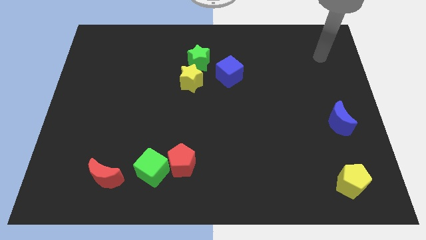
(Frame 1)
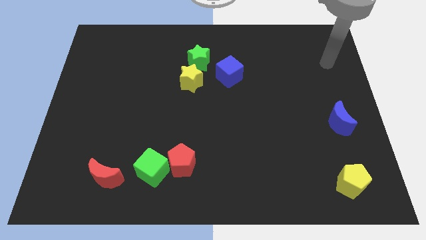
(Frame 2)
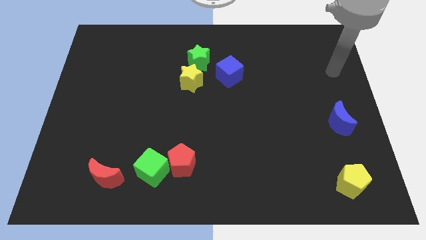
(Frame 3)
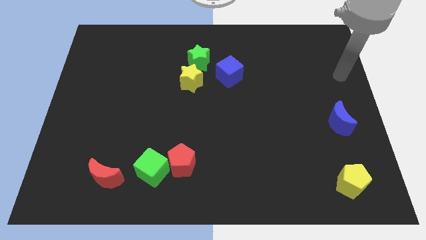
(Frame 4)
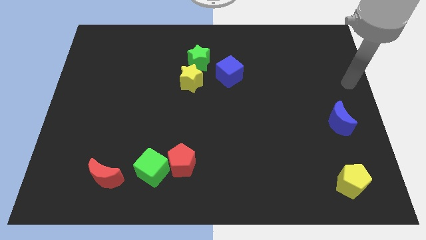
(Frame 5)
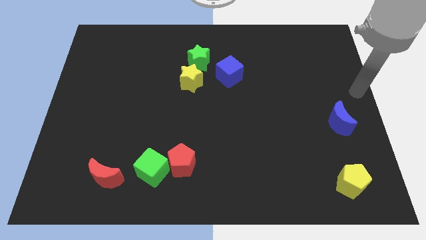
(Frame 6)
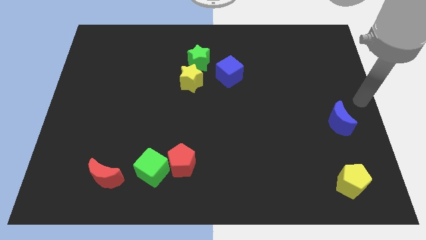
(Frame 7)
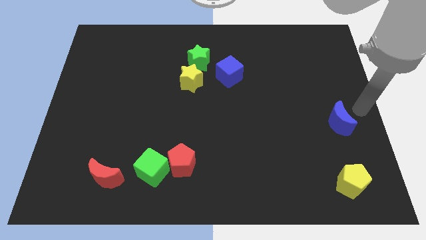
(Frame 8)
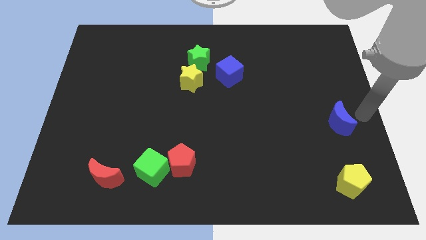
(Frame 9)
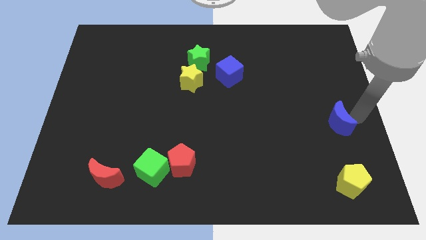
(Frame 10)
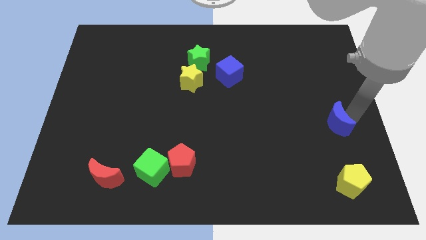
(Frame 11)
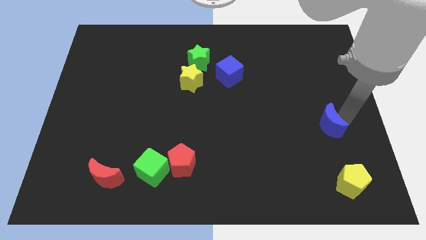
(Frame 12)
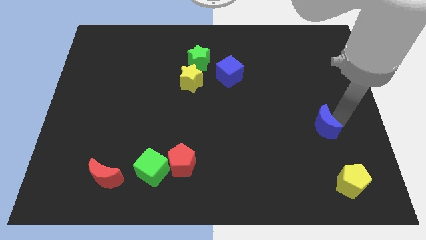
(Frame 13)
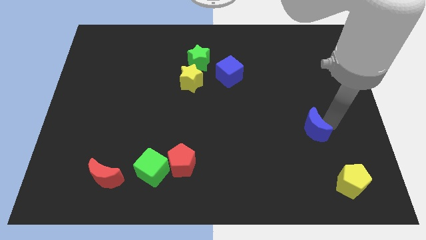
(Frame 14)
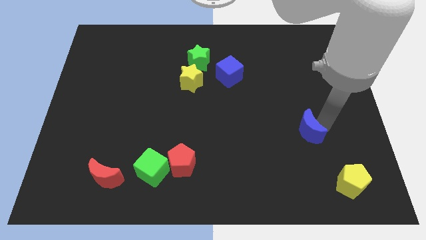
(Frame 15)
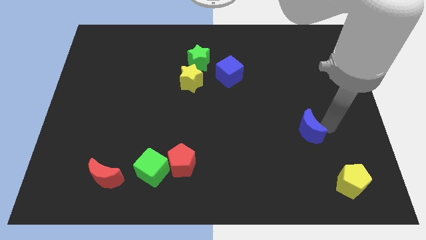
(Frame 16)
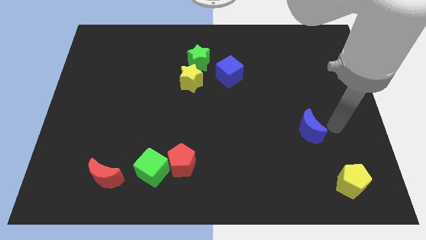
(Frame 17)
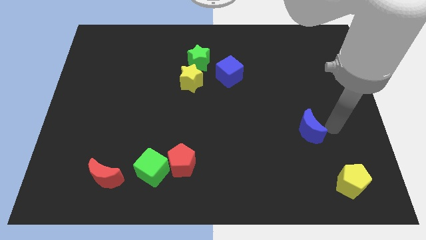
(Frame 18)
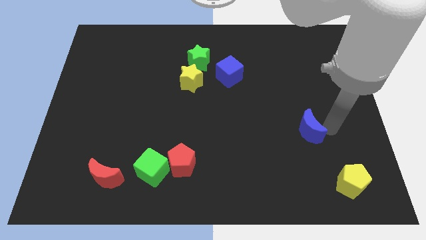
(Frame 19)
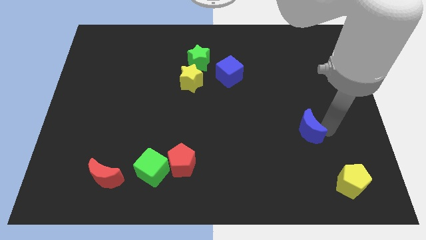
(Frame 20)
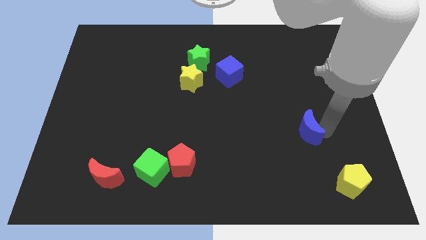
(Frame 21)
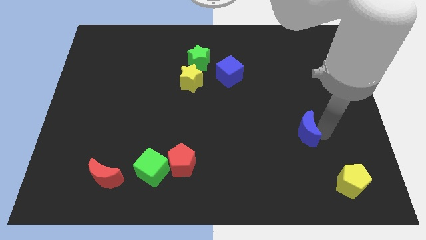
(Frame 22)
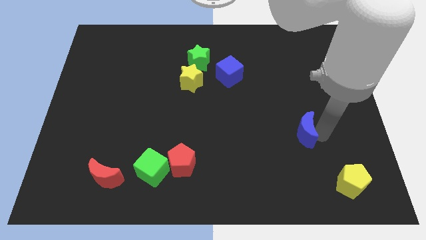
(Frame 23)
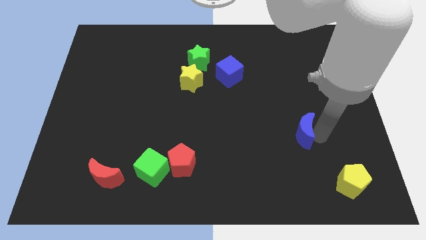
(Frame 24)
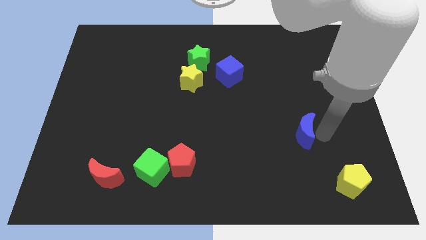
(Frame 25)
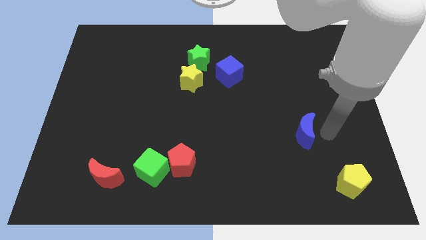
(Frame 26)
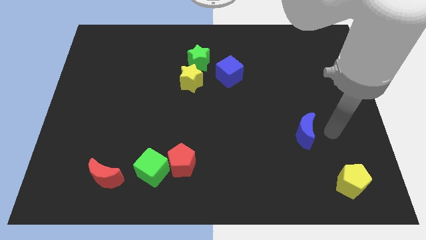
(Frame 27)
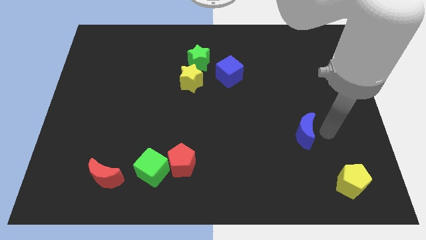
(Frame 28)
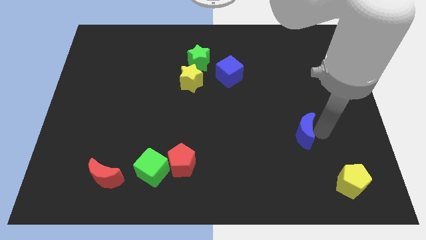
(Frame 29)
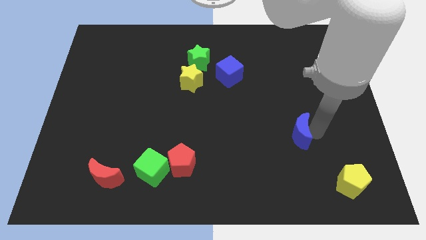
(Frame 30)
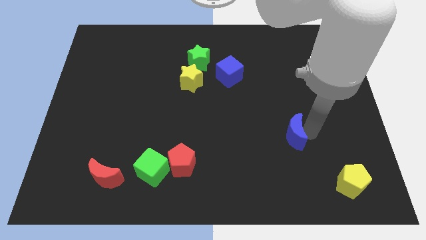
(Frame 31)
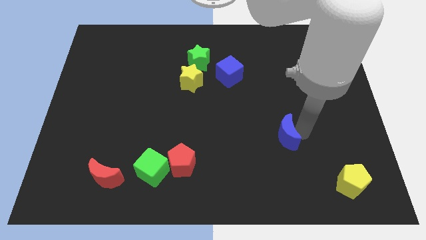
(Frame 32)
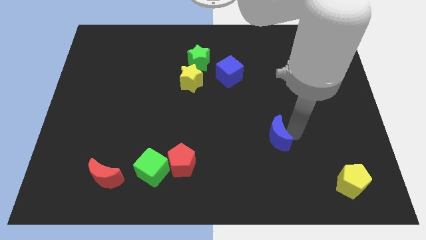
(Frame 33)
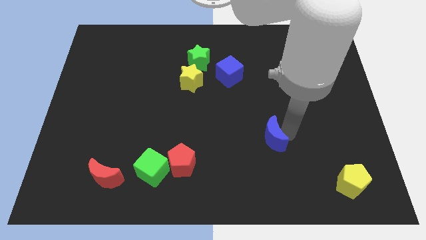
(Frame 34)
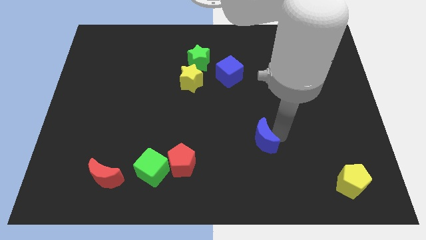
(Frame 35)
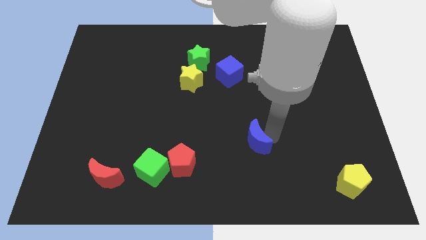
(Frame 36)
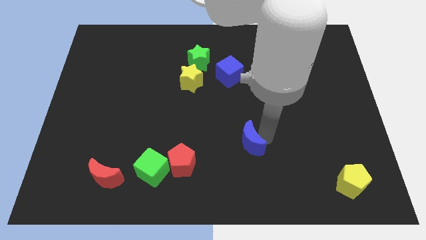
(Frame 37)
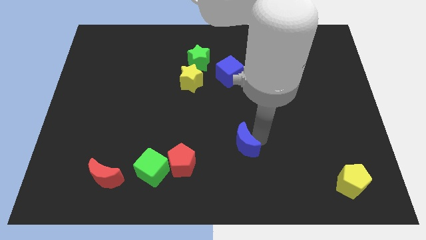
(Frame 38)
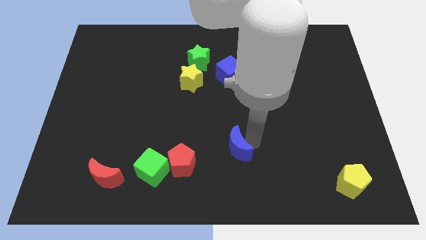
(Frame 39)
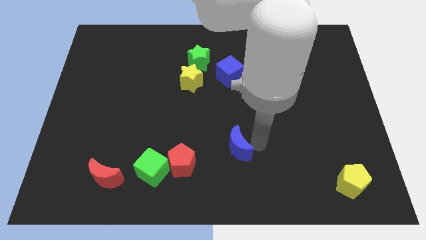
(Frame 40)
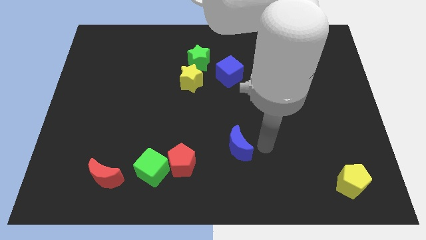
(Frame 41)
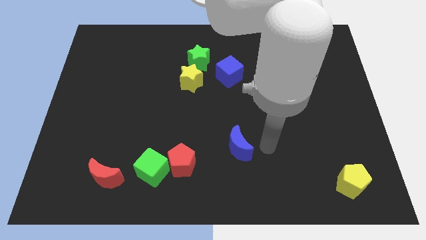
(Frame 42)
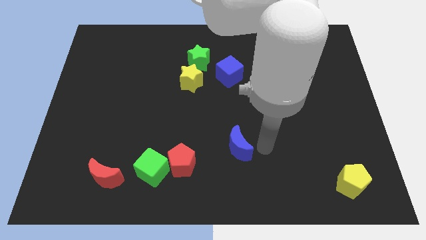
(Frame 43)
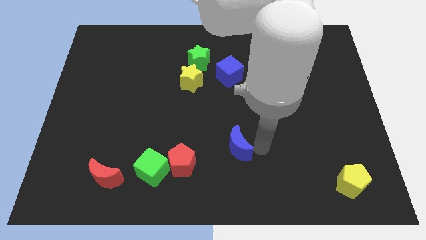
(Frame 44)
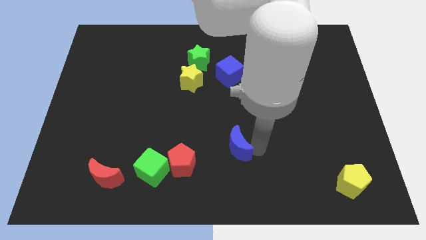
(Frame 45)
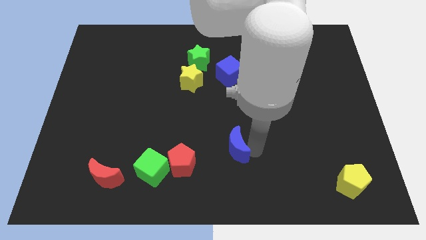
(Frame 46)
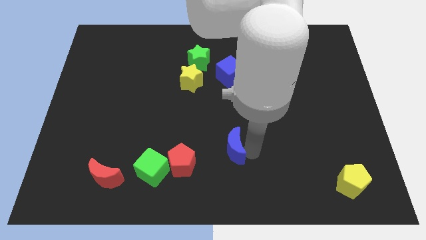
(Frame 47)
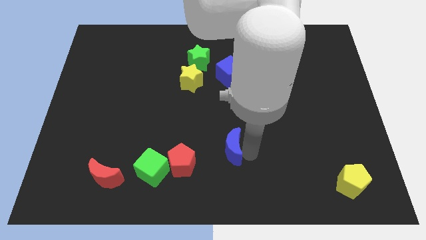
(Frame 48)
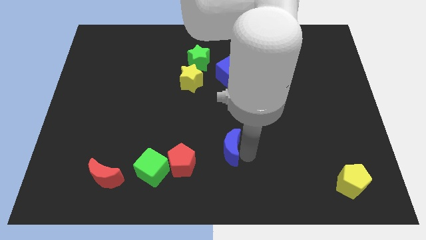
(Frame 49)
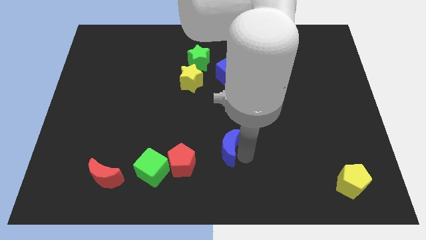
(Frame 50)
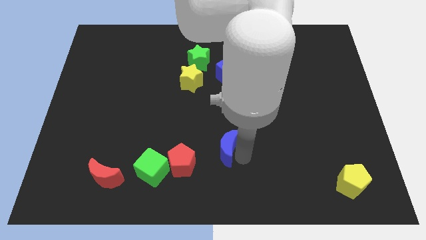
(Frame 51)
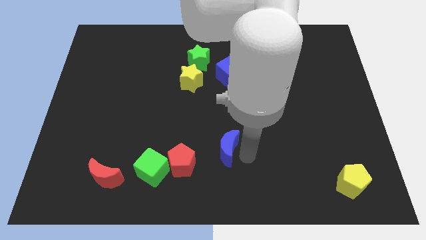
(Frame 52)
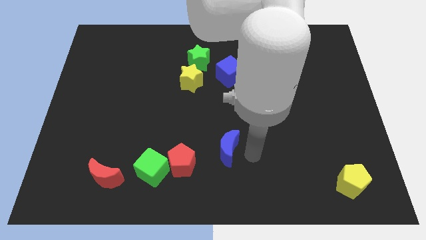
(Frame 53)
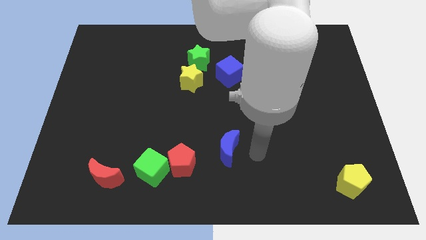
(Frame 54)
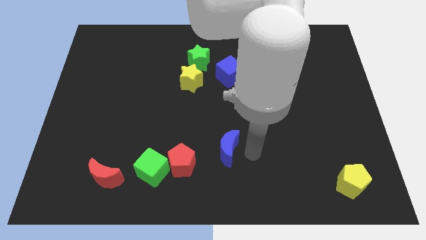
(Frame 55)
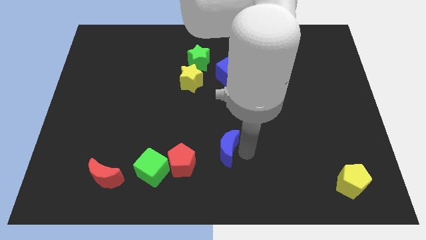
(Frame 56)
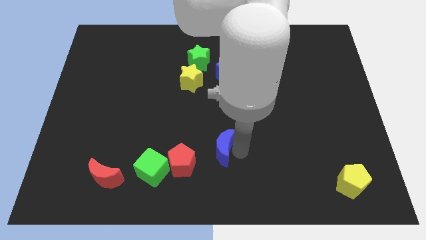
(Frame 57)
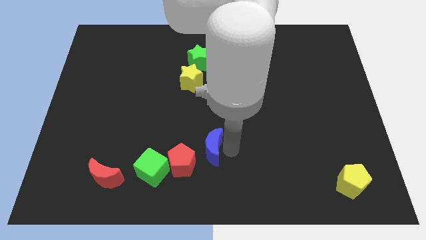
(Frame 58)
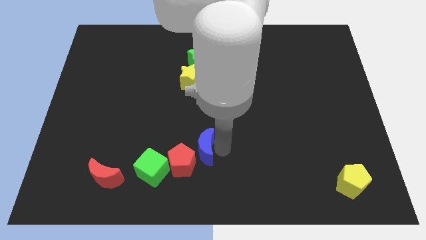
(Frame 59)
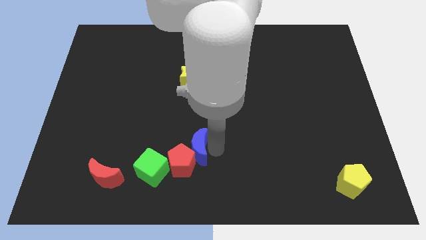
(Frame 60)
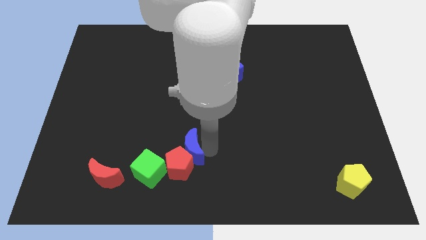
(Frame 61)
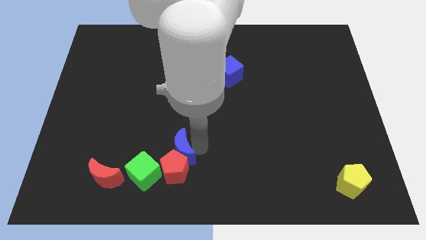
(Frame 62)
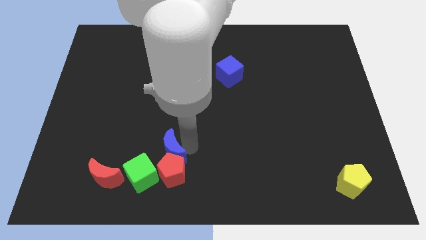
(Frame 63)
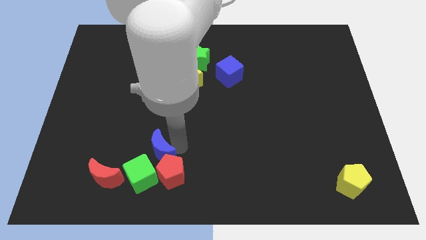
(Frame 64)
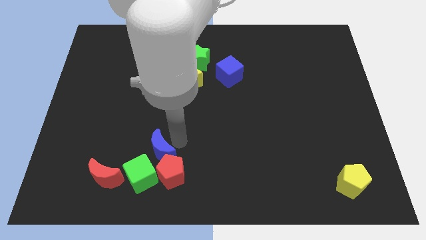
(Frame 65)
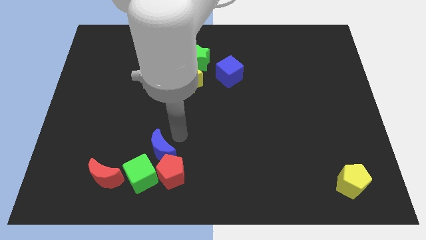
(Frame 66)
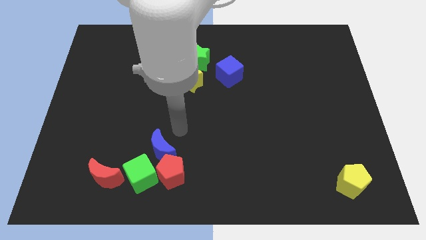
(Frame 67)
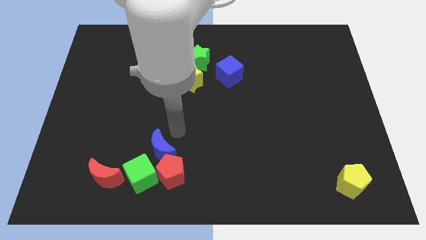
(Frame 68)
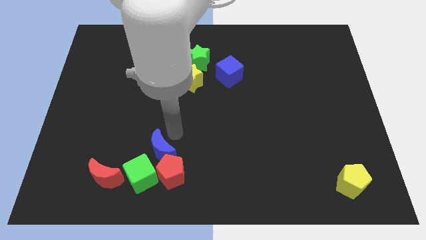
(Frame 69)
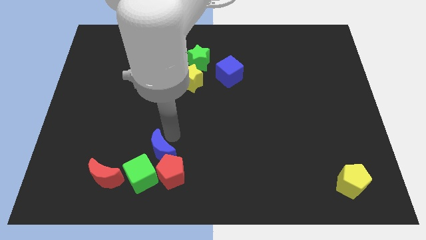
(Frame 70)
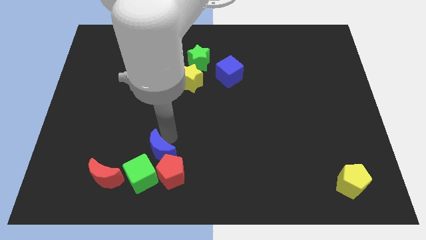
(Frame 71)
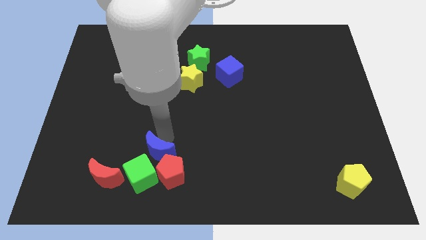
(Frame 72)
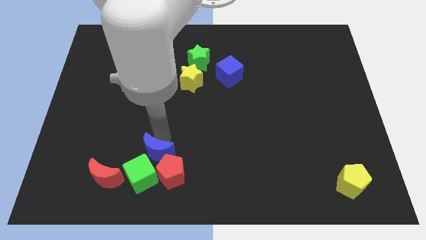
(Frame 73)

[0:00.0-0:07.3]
slide the blue moon towards the green cube
